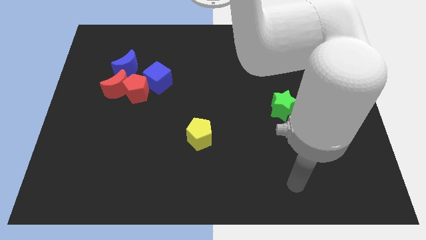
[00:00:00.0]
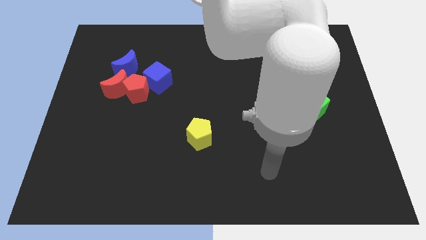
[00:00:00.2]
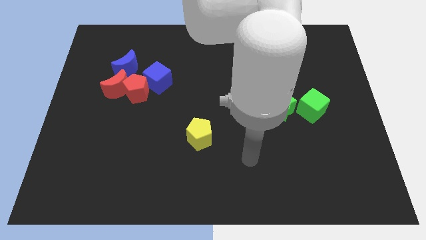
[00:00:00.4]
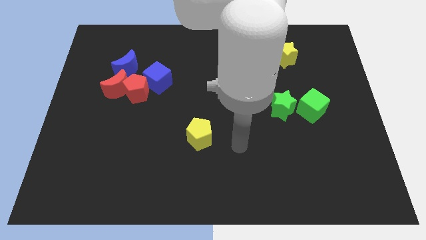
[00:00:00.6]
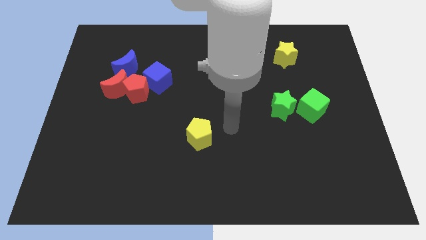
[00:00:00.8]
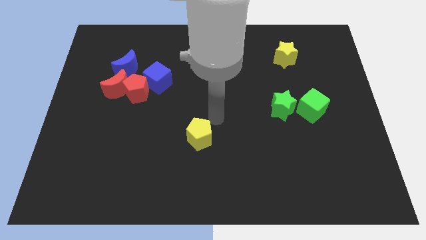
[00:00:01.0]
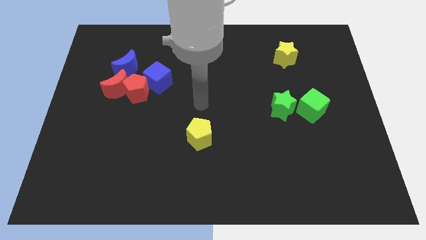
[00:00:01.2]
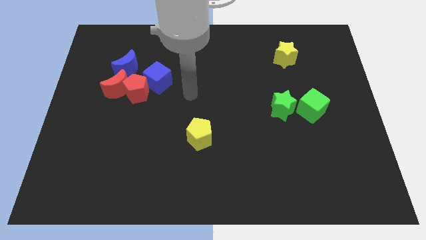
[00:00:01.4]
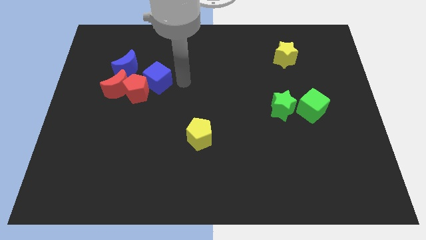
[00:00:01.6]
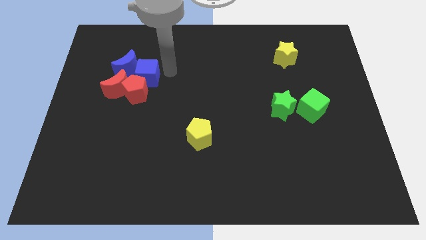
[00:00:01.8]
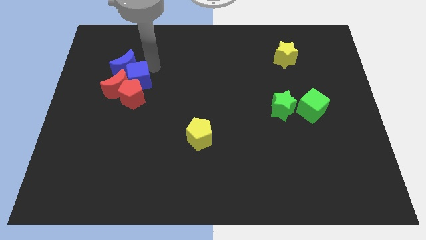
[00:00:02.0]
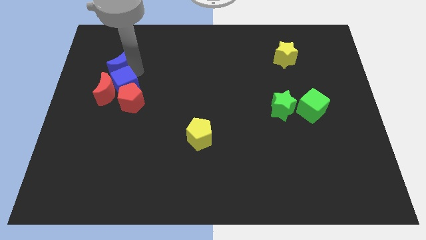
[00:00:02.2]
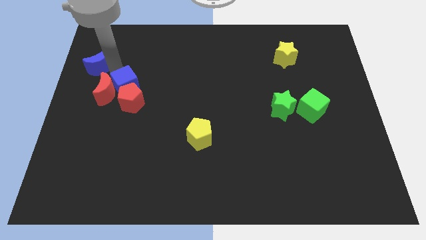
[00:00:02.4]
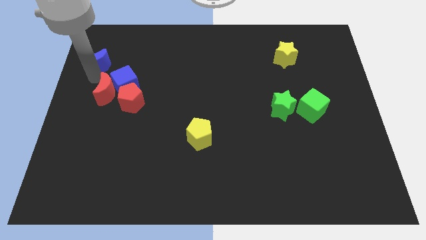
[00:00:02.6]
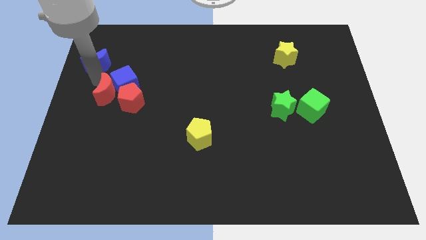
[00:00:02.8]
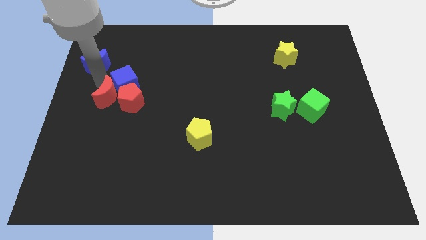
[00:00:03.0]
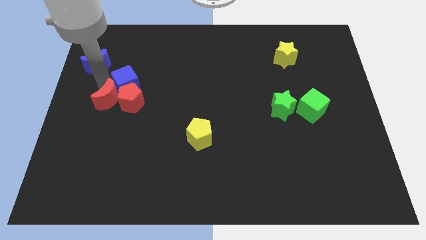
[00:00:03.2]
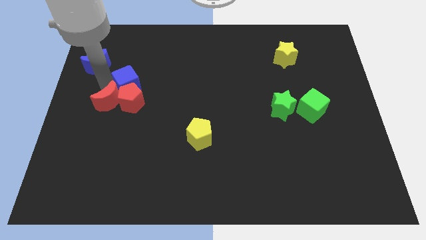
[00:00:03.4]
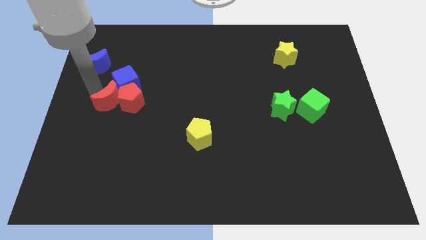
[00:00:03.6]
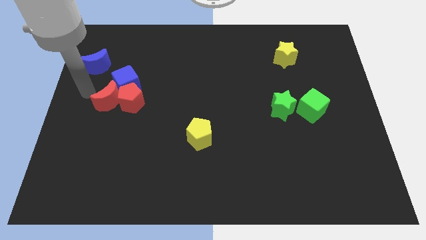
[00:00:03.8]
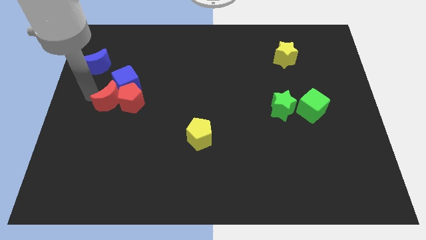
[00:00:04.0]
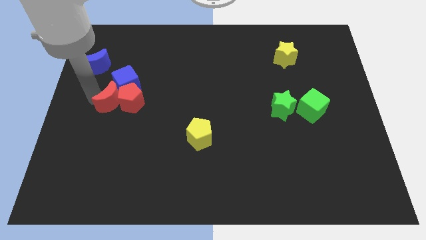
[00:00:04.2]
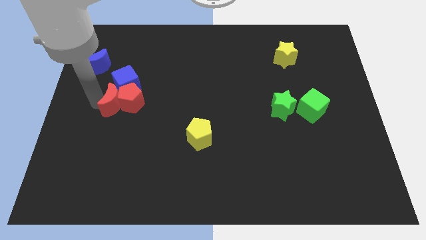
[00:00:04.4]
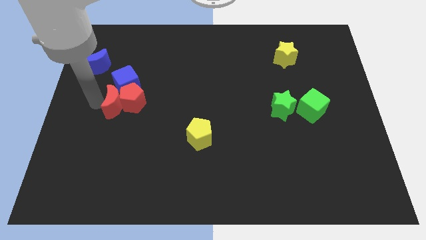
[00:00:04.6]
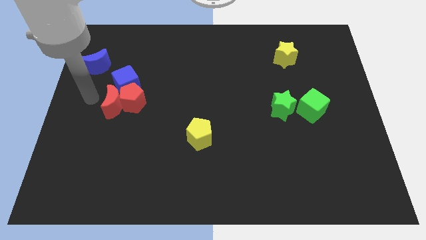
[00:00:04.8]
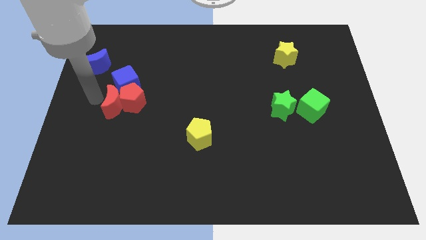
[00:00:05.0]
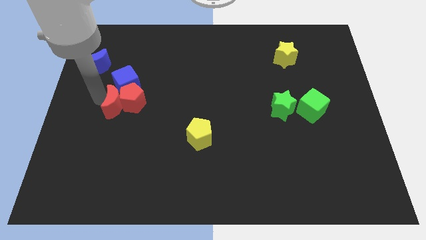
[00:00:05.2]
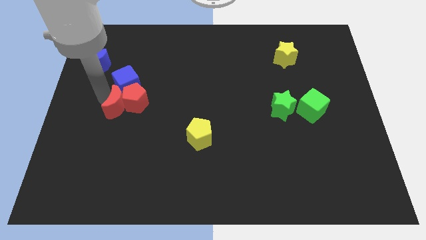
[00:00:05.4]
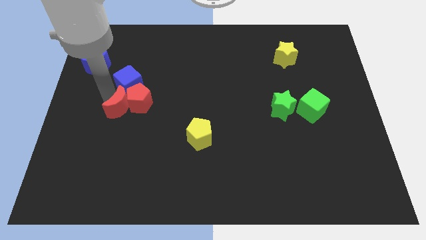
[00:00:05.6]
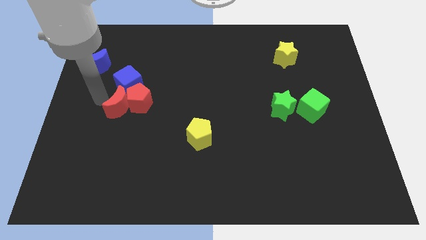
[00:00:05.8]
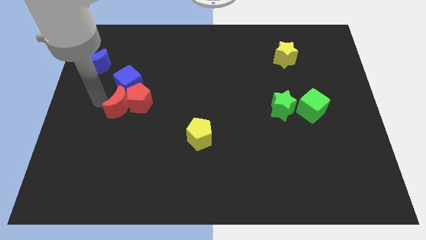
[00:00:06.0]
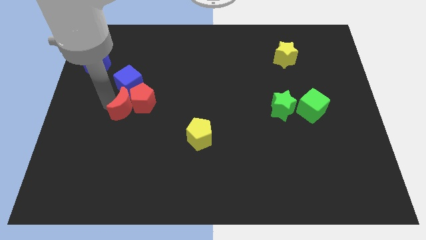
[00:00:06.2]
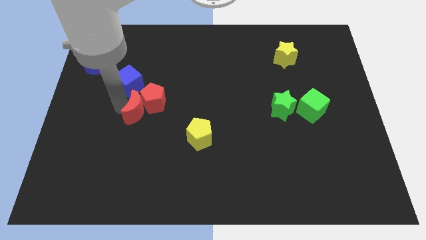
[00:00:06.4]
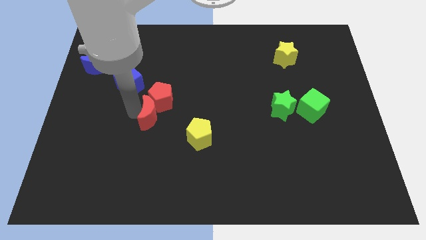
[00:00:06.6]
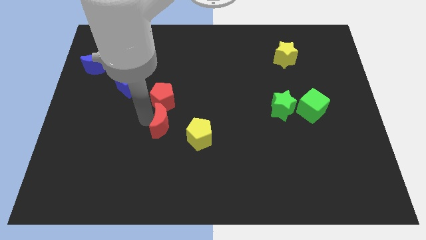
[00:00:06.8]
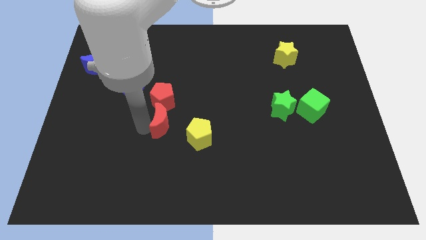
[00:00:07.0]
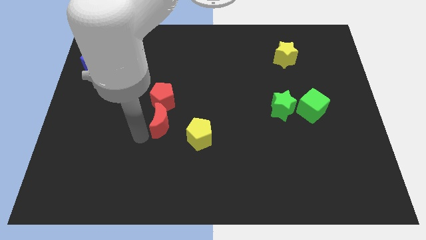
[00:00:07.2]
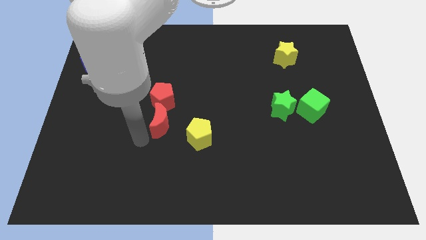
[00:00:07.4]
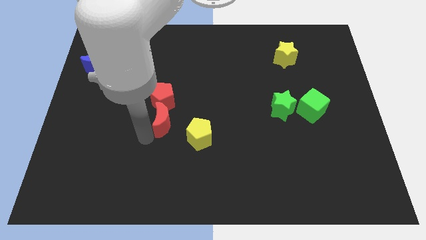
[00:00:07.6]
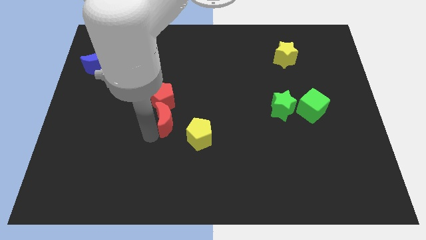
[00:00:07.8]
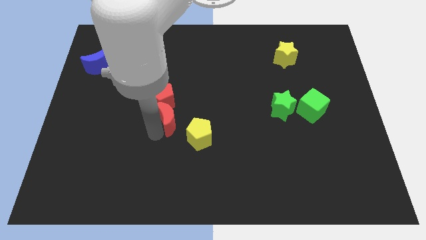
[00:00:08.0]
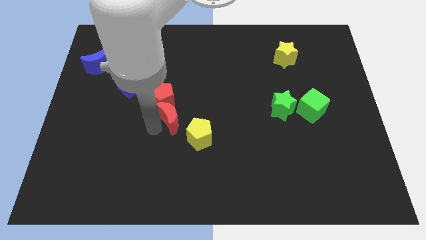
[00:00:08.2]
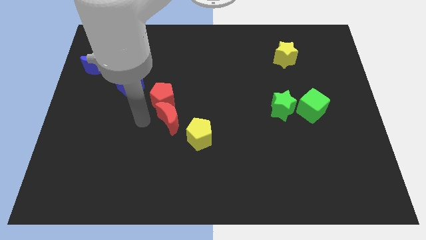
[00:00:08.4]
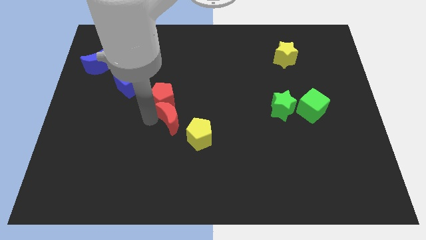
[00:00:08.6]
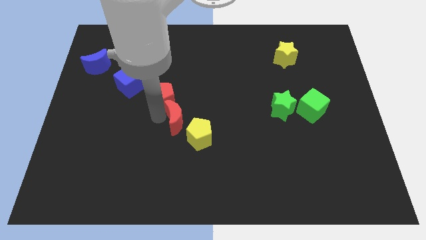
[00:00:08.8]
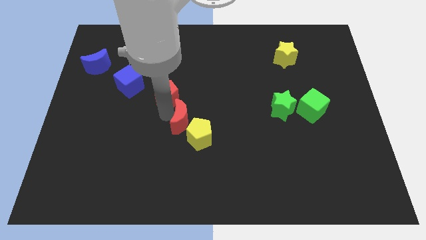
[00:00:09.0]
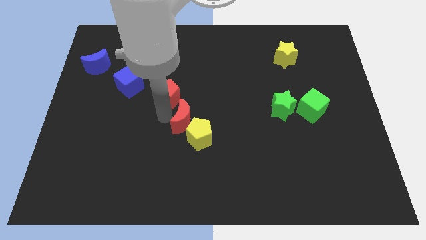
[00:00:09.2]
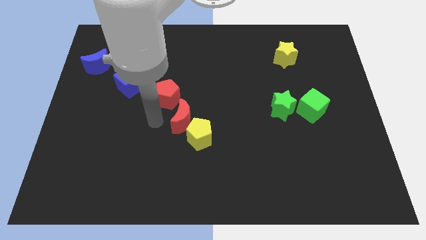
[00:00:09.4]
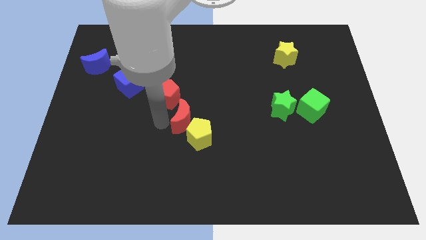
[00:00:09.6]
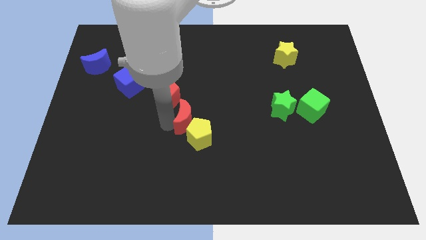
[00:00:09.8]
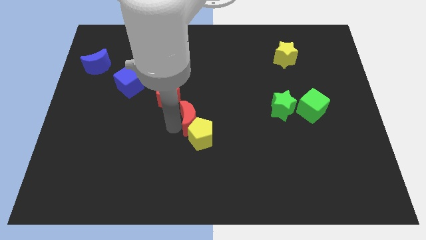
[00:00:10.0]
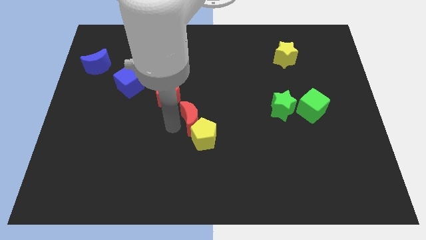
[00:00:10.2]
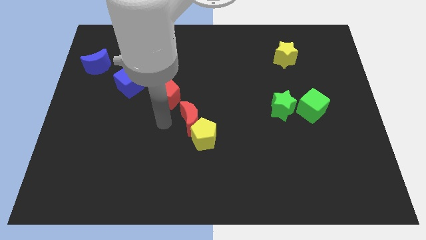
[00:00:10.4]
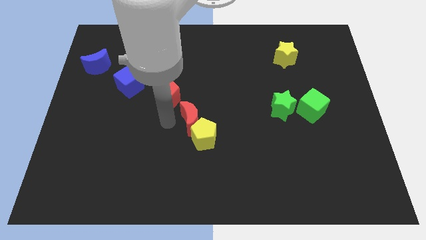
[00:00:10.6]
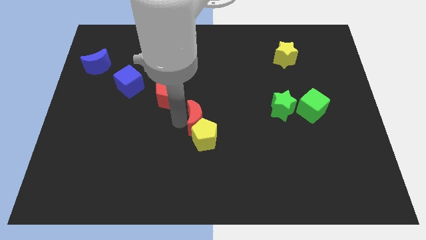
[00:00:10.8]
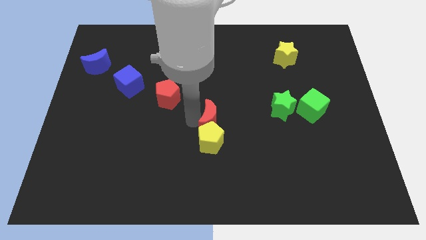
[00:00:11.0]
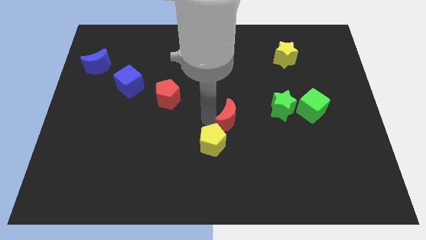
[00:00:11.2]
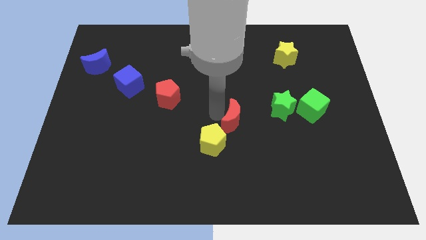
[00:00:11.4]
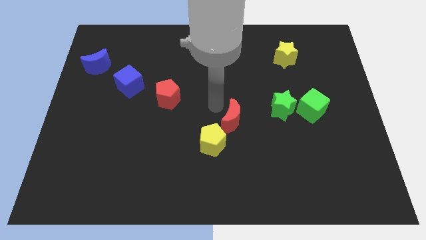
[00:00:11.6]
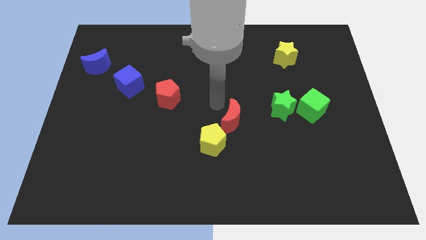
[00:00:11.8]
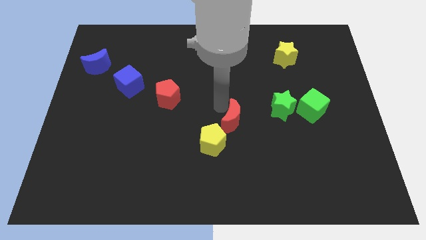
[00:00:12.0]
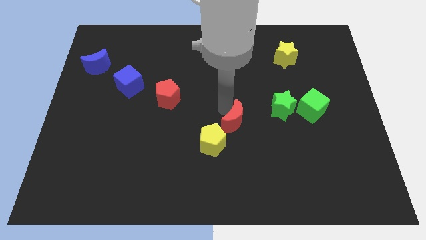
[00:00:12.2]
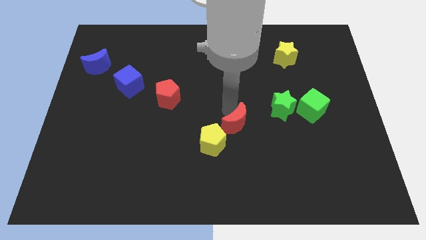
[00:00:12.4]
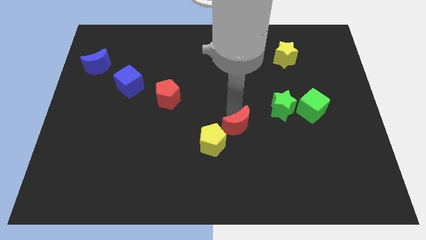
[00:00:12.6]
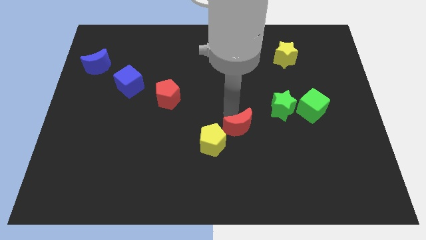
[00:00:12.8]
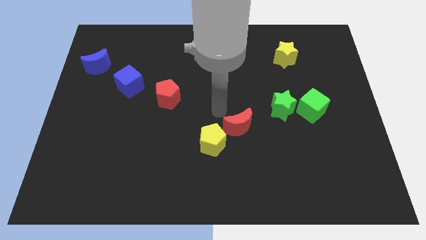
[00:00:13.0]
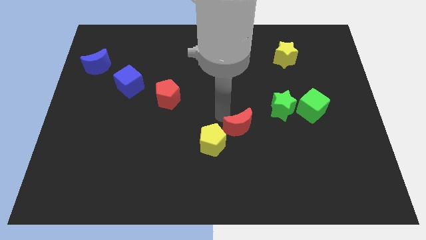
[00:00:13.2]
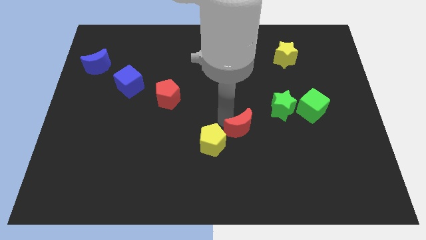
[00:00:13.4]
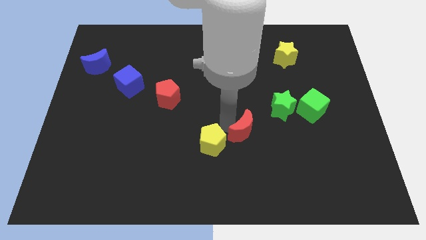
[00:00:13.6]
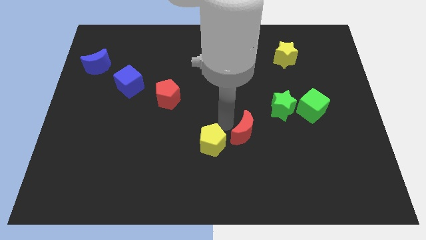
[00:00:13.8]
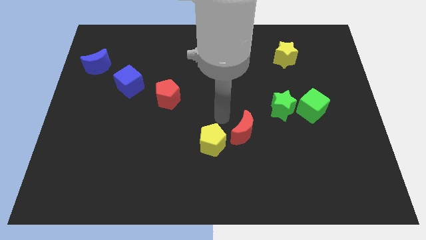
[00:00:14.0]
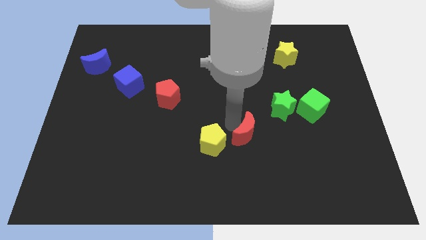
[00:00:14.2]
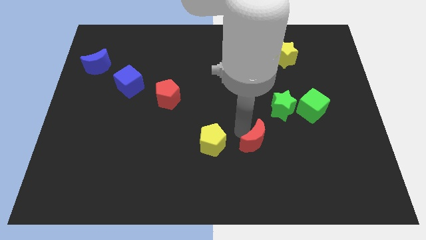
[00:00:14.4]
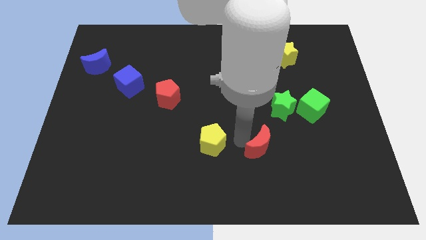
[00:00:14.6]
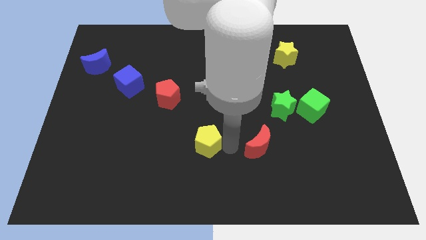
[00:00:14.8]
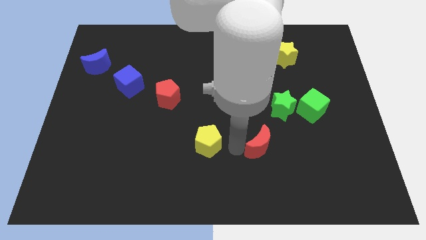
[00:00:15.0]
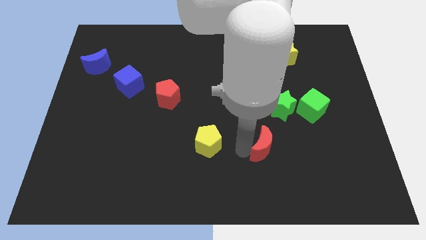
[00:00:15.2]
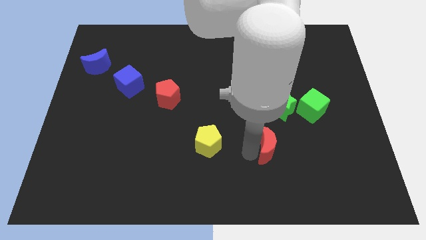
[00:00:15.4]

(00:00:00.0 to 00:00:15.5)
move the red moon to the bottom of the green star

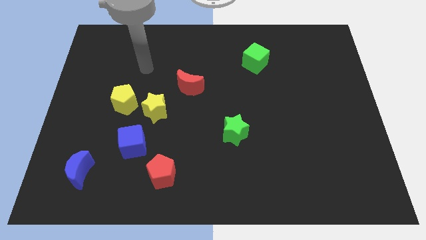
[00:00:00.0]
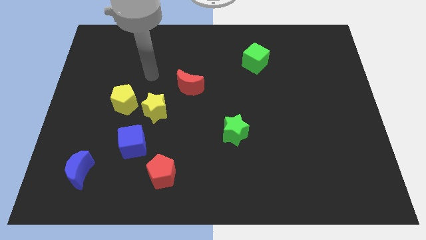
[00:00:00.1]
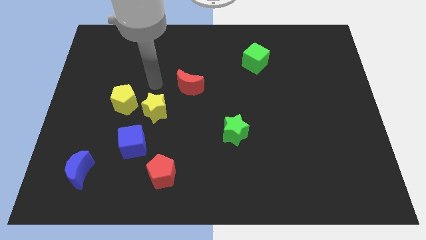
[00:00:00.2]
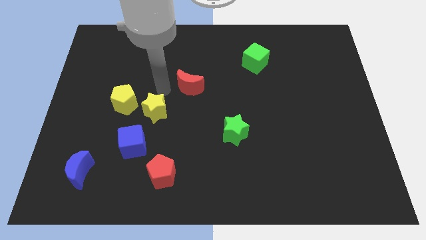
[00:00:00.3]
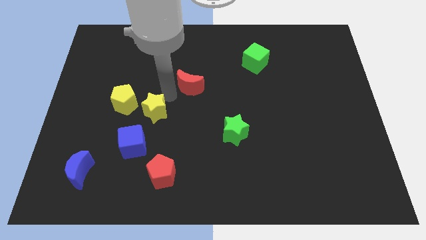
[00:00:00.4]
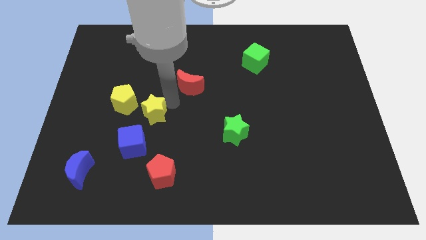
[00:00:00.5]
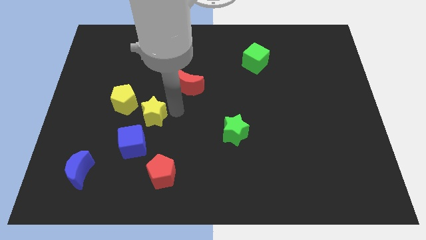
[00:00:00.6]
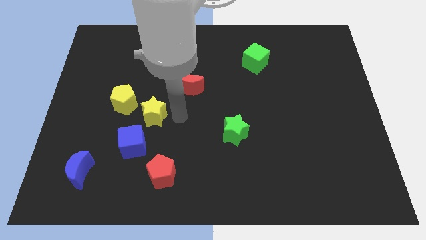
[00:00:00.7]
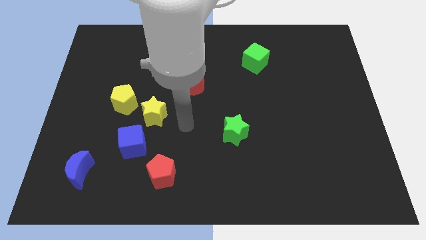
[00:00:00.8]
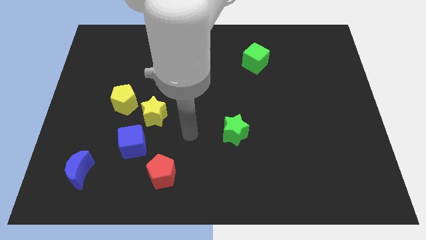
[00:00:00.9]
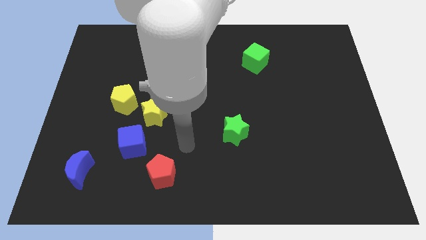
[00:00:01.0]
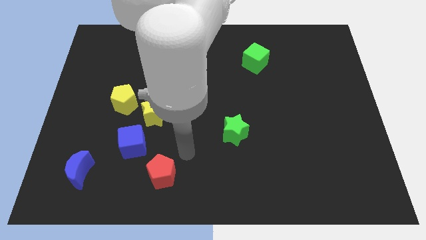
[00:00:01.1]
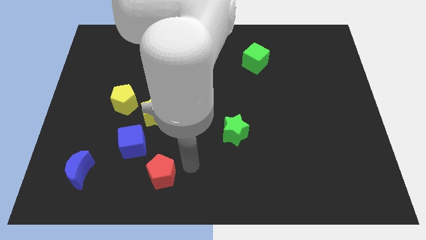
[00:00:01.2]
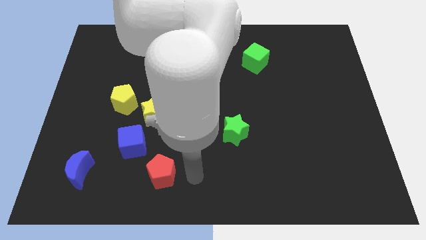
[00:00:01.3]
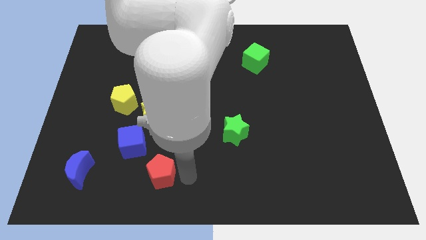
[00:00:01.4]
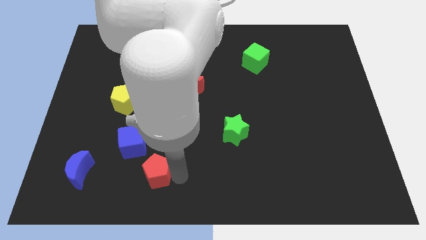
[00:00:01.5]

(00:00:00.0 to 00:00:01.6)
put the red pentagon just right of the blue moon
